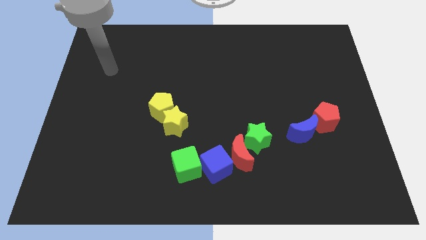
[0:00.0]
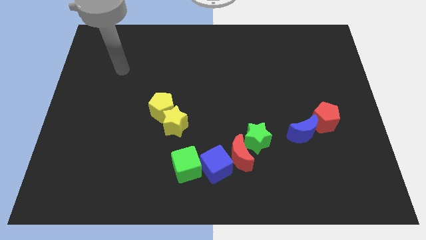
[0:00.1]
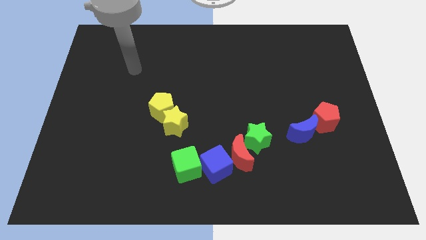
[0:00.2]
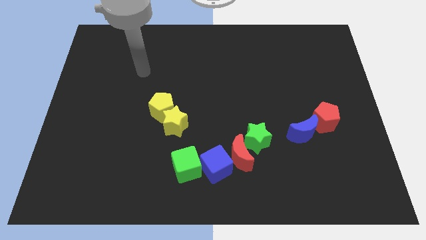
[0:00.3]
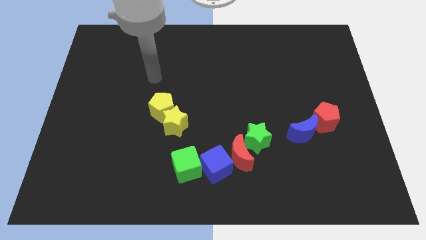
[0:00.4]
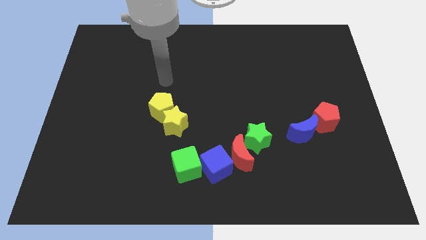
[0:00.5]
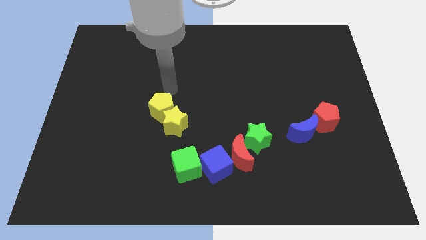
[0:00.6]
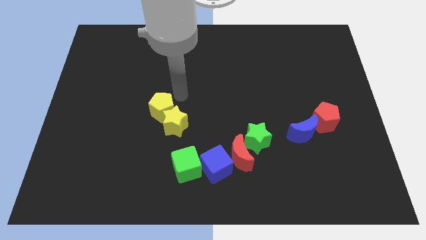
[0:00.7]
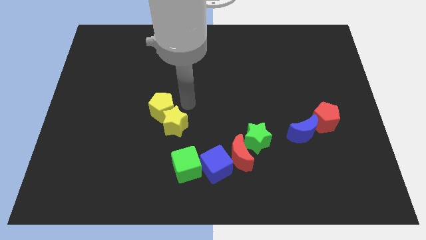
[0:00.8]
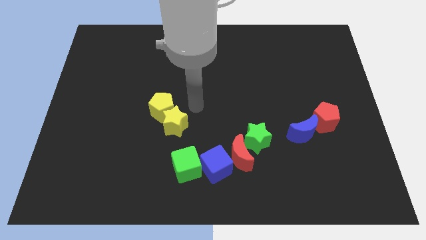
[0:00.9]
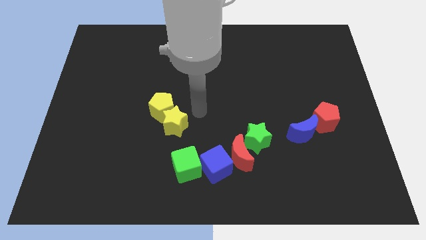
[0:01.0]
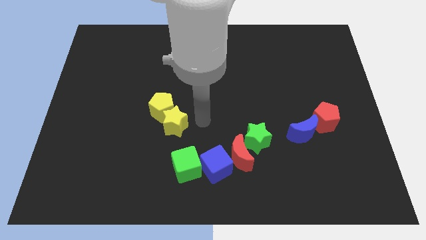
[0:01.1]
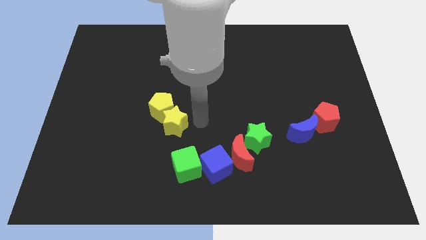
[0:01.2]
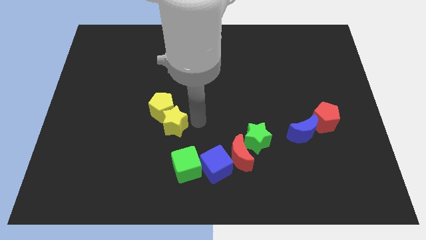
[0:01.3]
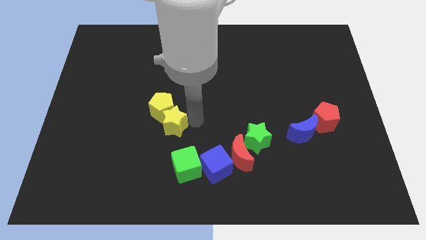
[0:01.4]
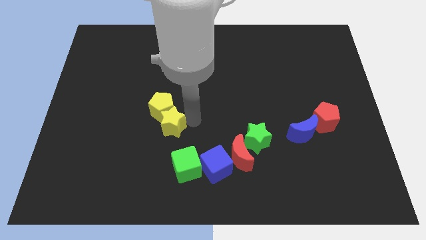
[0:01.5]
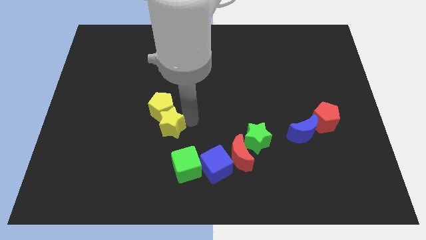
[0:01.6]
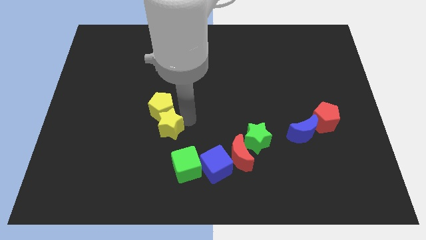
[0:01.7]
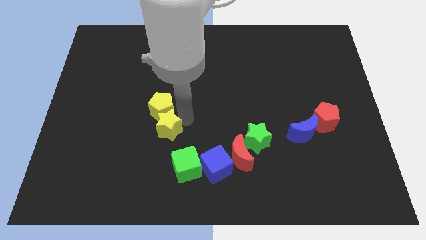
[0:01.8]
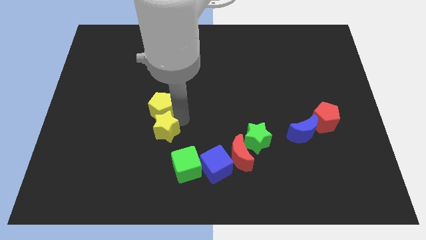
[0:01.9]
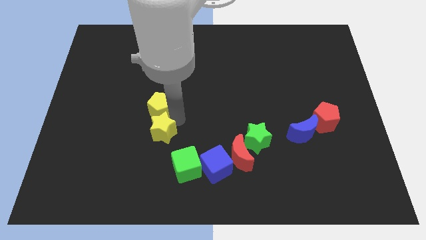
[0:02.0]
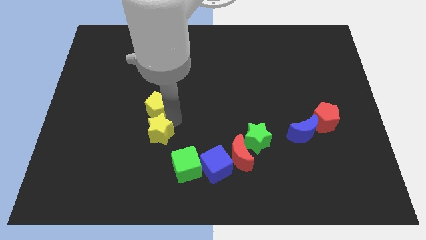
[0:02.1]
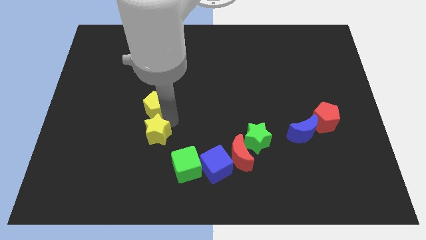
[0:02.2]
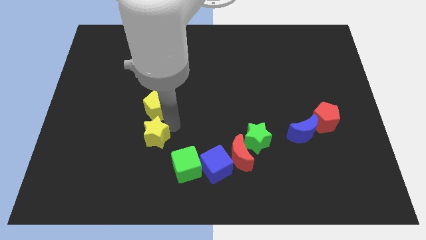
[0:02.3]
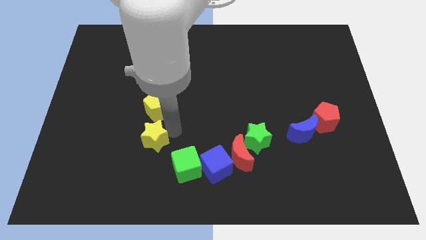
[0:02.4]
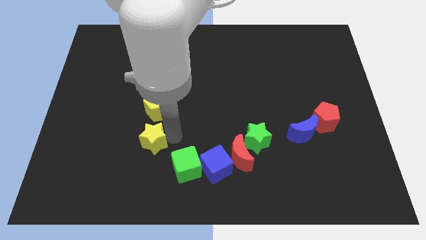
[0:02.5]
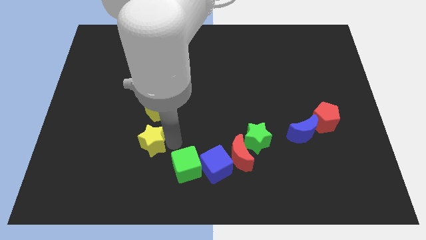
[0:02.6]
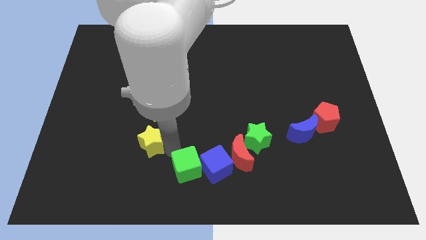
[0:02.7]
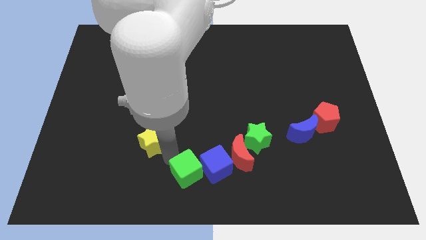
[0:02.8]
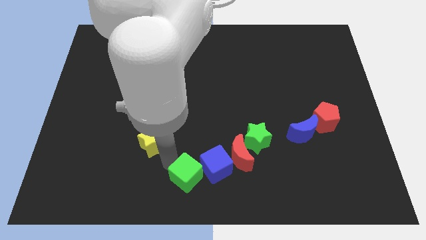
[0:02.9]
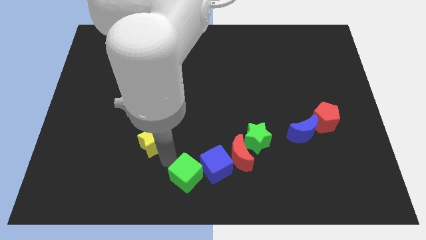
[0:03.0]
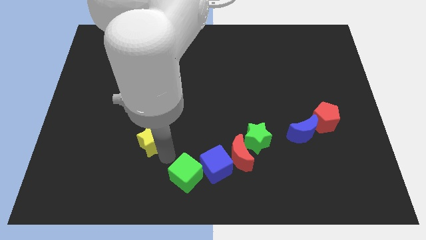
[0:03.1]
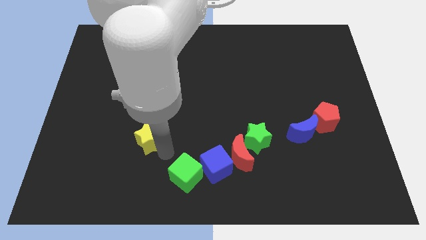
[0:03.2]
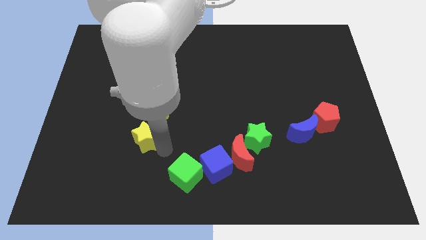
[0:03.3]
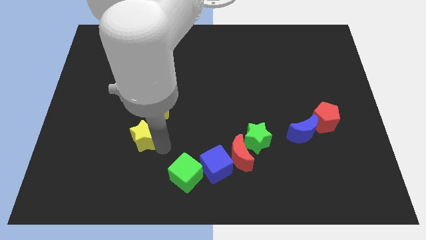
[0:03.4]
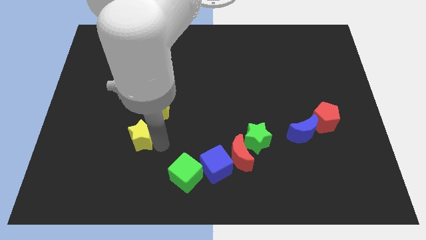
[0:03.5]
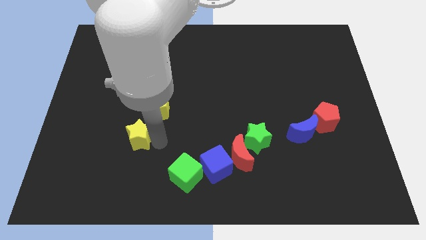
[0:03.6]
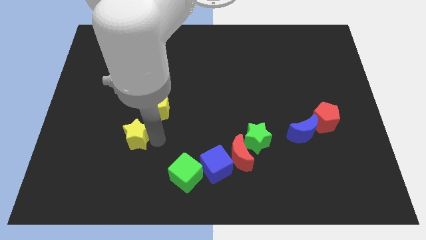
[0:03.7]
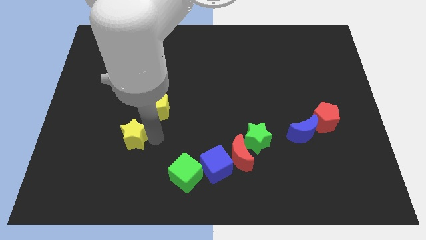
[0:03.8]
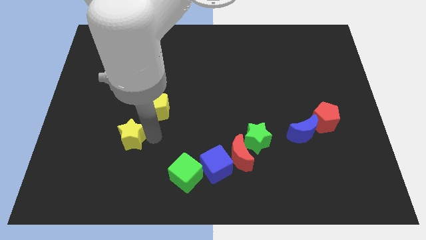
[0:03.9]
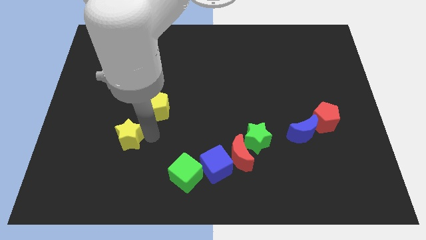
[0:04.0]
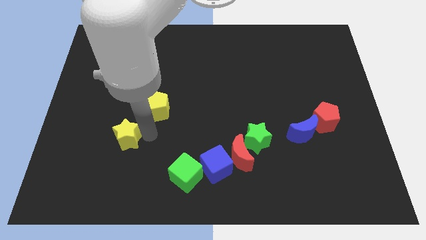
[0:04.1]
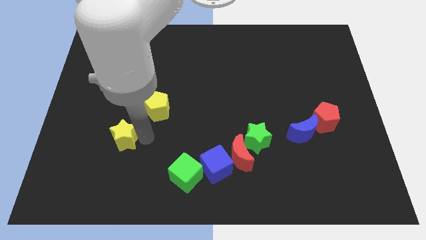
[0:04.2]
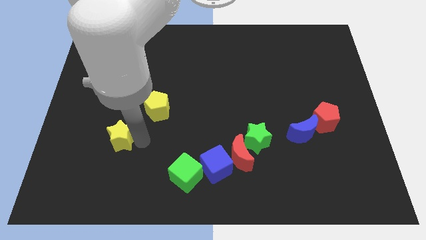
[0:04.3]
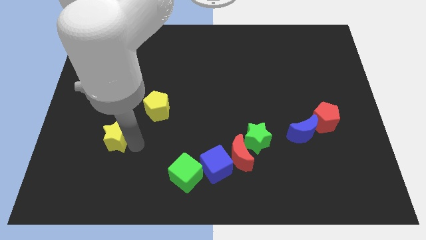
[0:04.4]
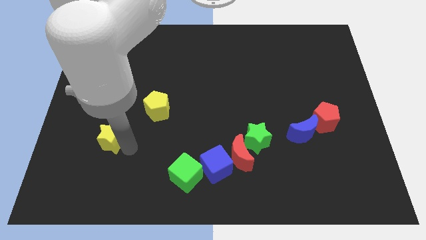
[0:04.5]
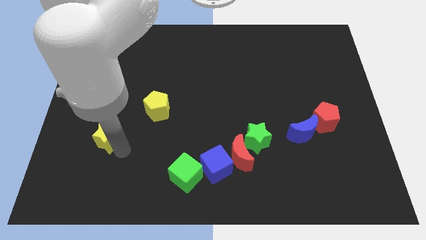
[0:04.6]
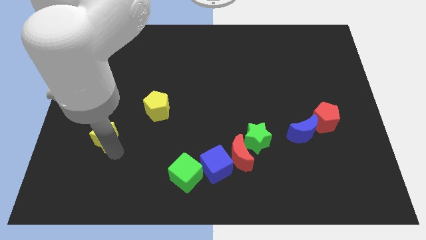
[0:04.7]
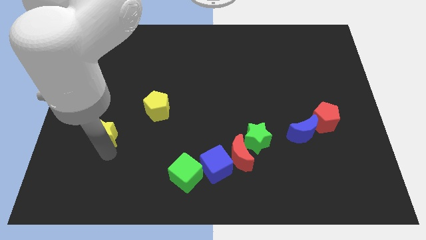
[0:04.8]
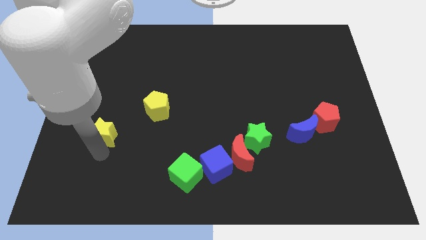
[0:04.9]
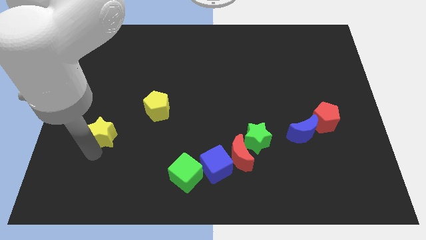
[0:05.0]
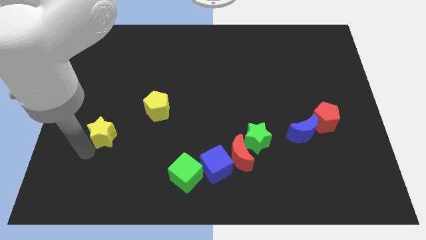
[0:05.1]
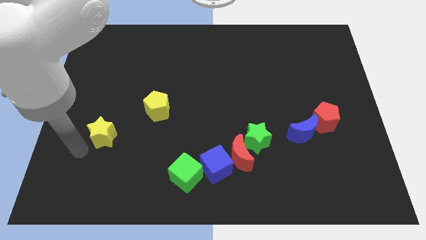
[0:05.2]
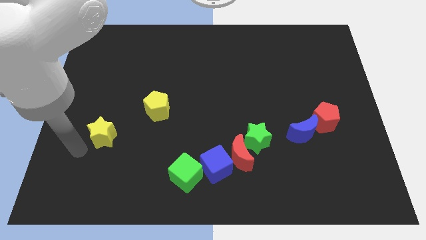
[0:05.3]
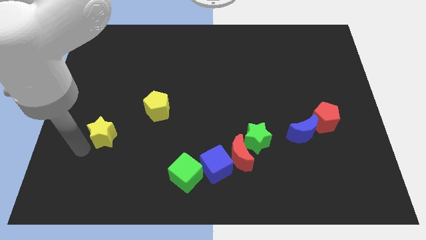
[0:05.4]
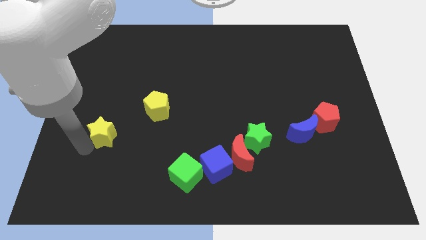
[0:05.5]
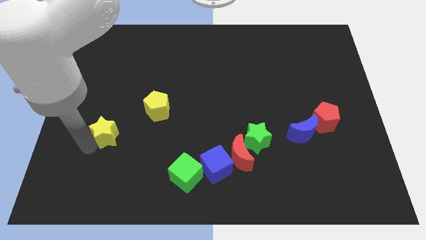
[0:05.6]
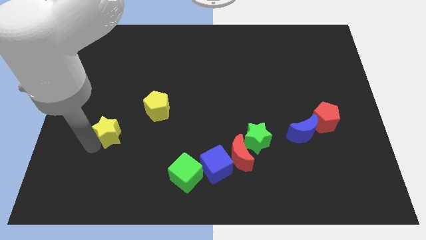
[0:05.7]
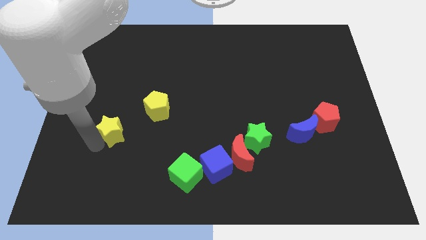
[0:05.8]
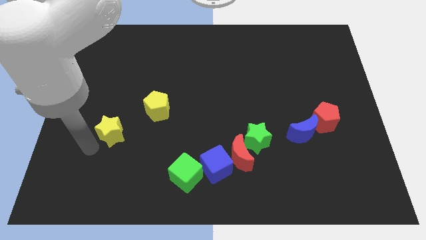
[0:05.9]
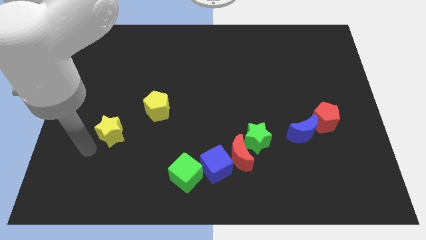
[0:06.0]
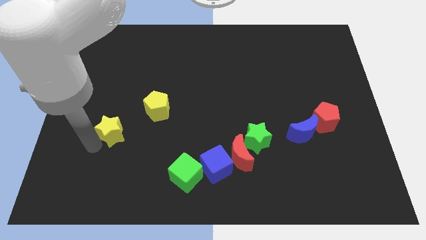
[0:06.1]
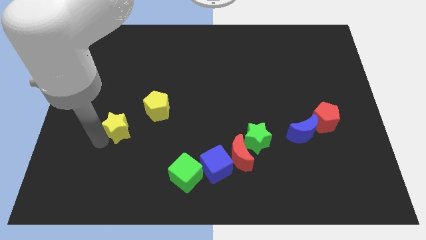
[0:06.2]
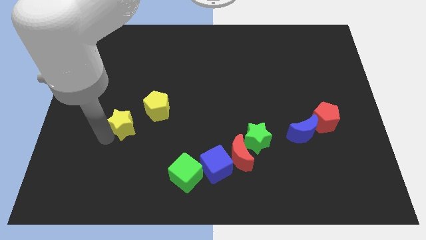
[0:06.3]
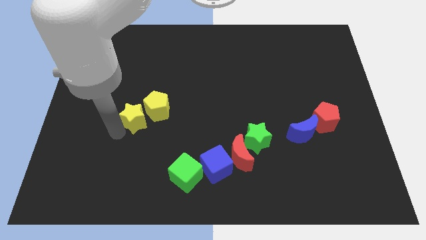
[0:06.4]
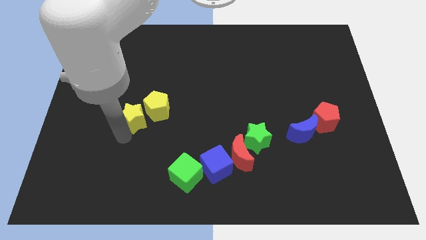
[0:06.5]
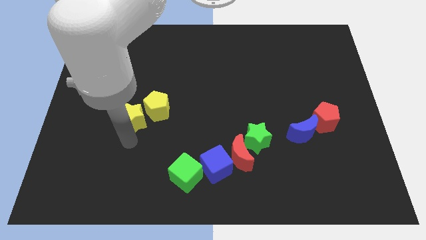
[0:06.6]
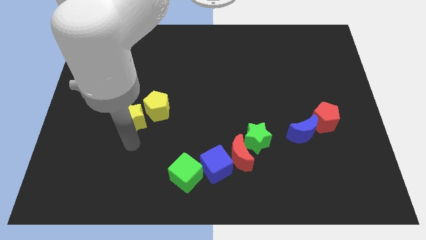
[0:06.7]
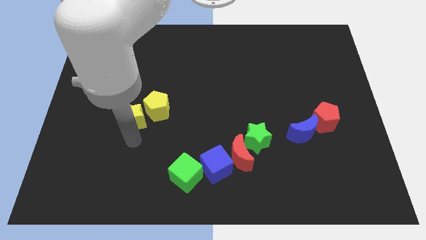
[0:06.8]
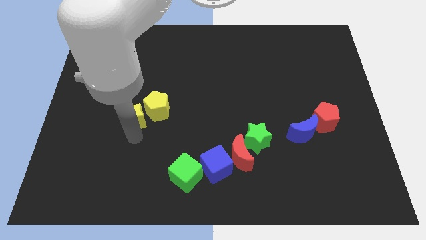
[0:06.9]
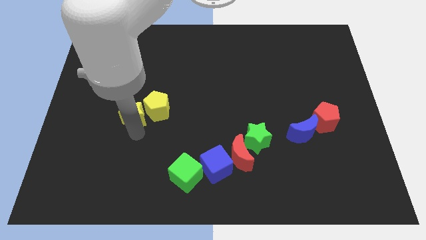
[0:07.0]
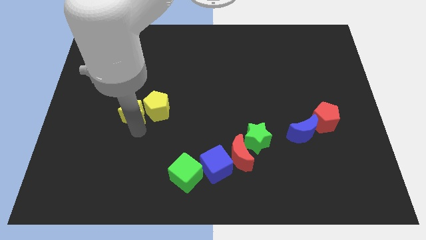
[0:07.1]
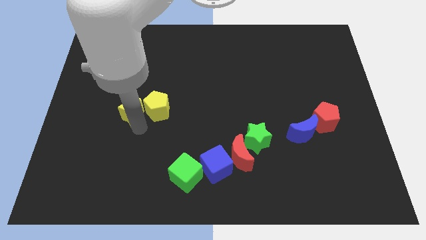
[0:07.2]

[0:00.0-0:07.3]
move the yellow star to the top left of the yellow pentagon

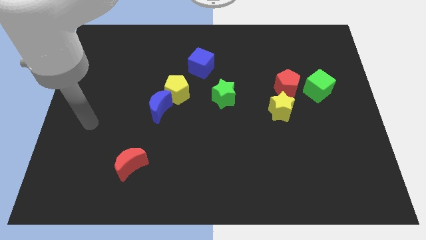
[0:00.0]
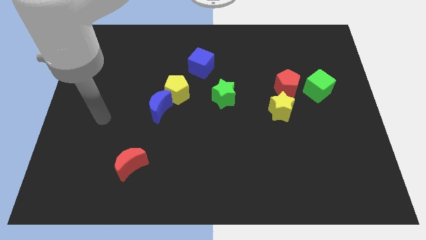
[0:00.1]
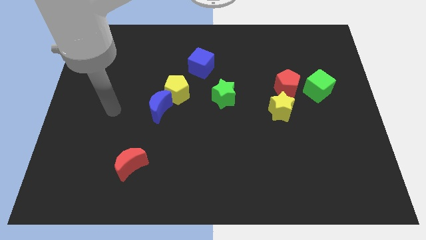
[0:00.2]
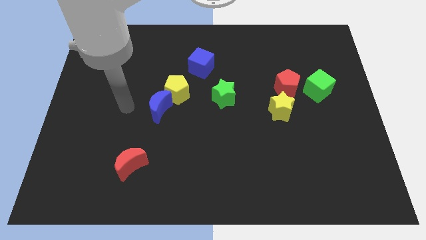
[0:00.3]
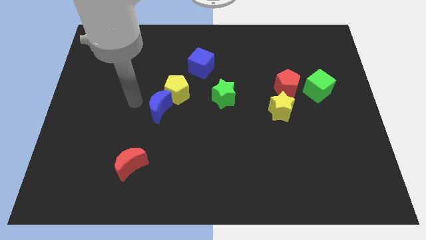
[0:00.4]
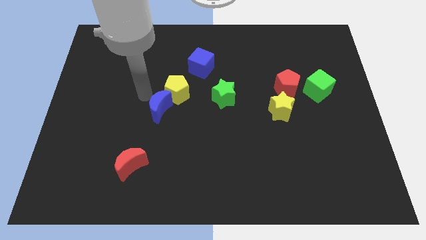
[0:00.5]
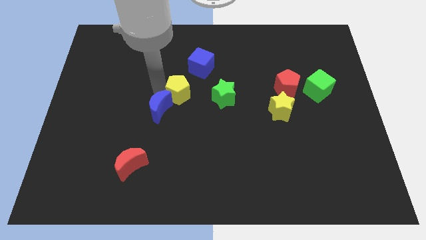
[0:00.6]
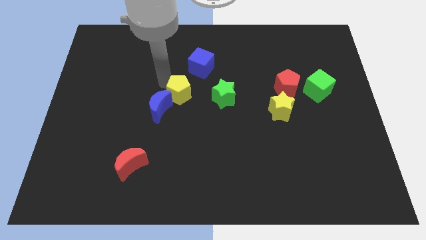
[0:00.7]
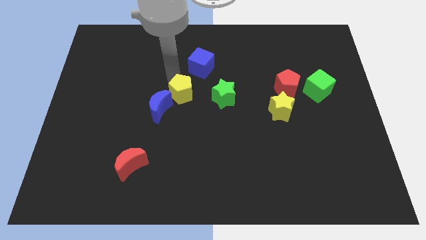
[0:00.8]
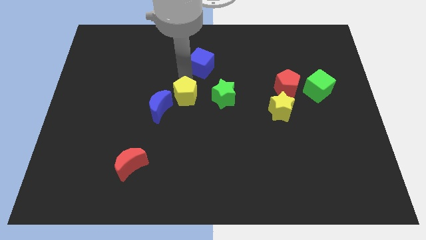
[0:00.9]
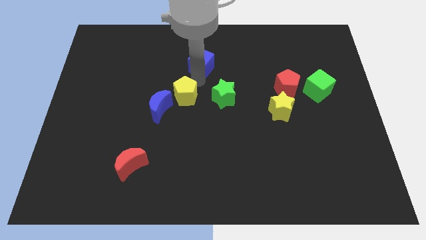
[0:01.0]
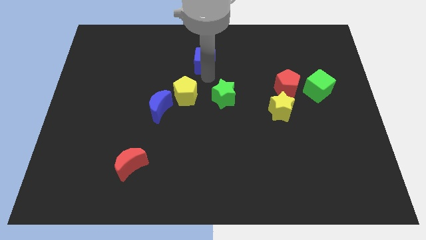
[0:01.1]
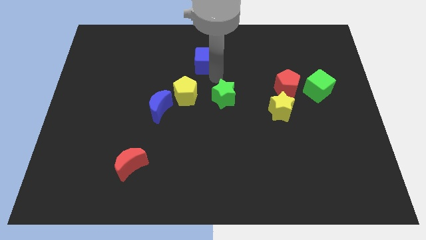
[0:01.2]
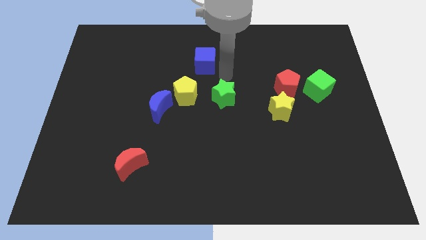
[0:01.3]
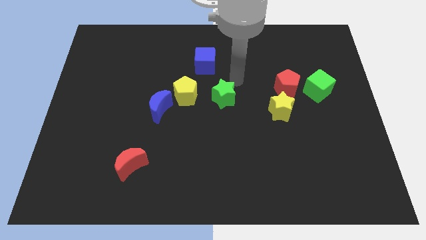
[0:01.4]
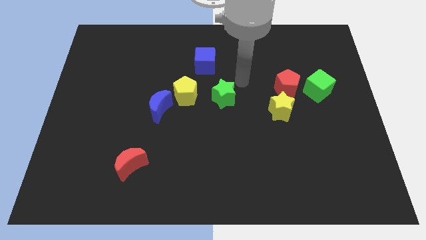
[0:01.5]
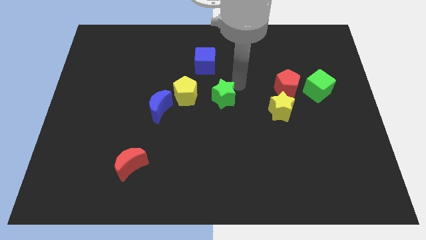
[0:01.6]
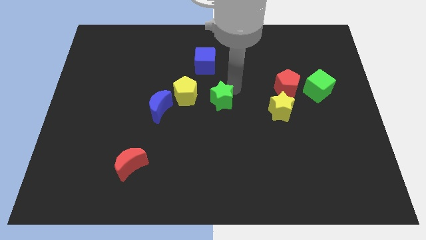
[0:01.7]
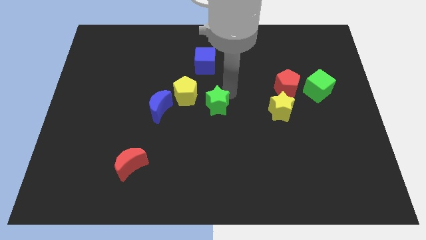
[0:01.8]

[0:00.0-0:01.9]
put the green star diagonally down and to the right of the yellow pentagon
